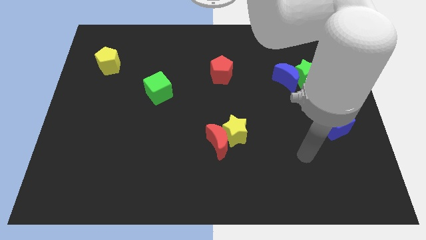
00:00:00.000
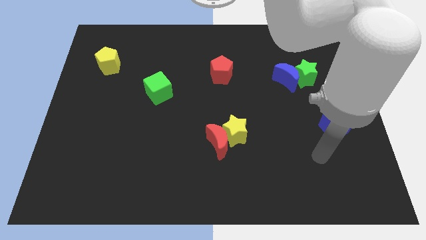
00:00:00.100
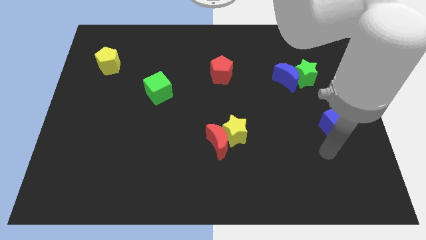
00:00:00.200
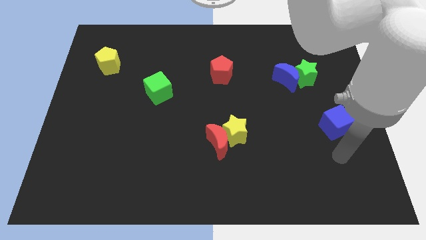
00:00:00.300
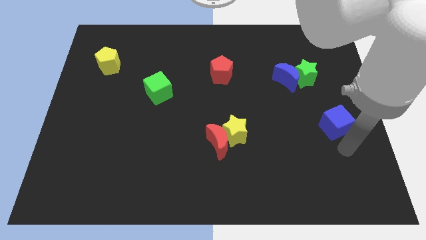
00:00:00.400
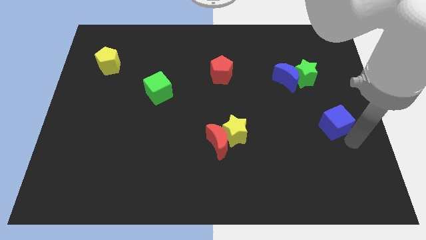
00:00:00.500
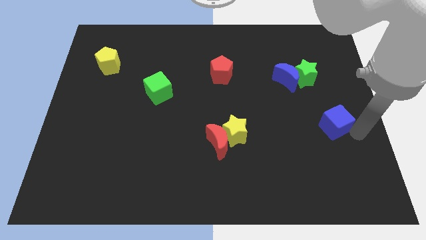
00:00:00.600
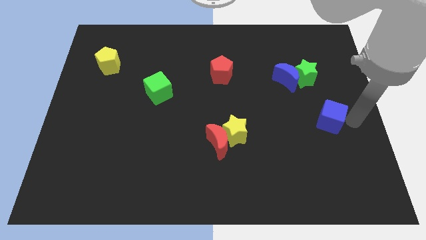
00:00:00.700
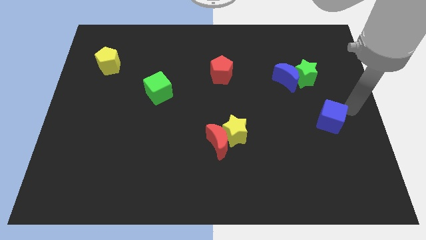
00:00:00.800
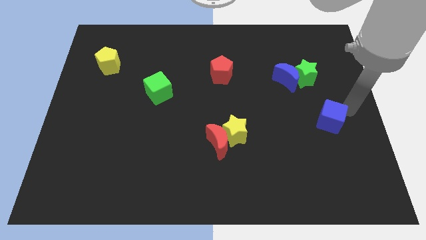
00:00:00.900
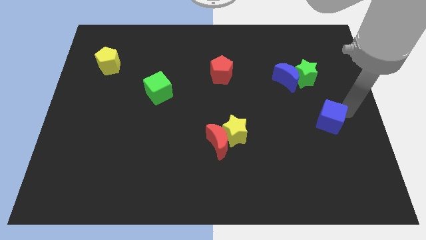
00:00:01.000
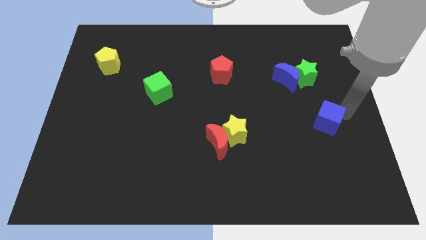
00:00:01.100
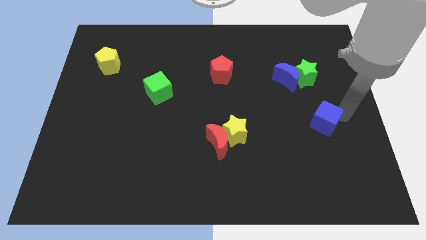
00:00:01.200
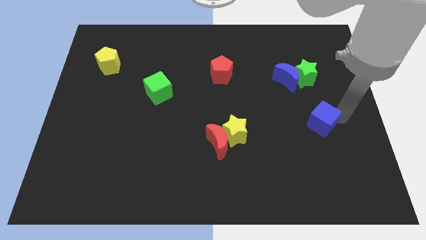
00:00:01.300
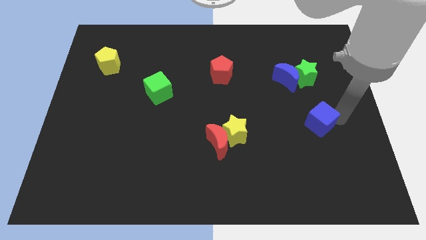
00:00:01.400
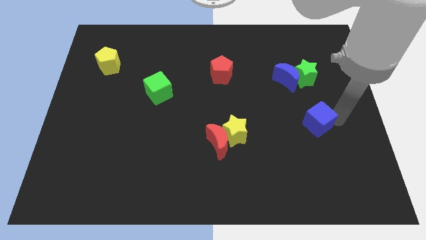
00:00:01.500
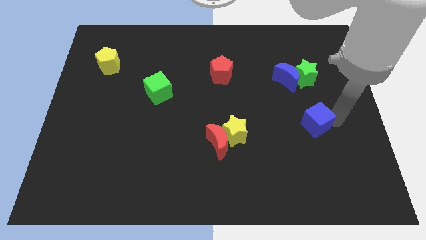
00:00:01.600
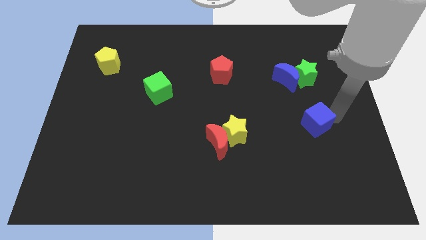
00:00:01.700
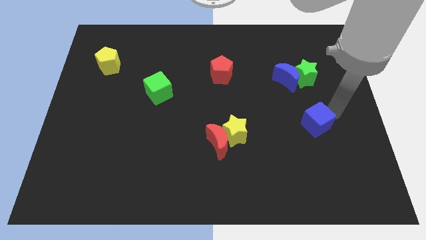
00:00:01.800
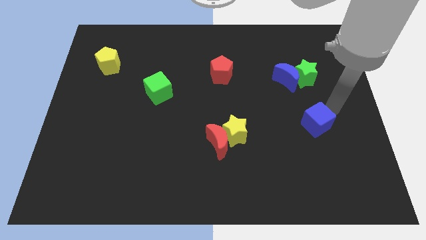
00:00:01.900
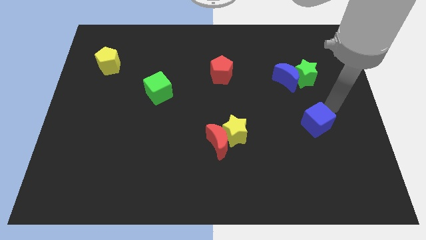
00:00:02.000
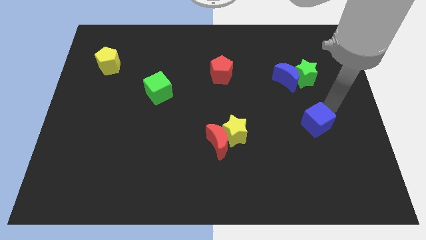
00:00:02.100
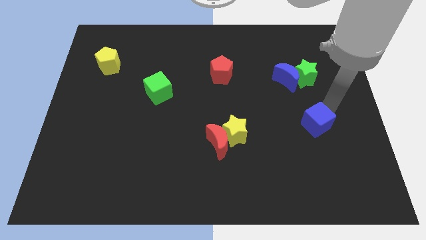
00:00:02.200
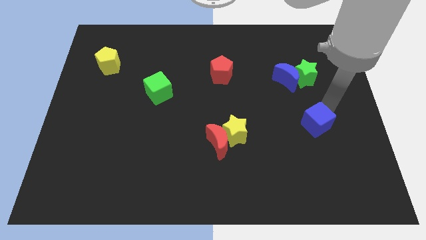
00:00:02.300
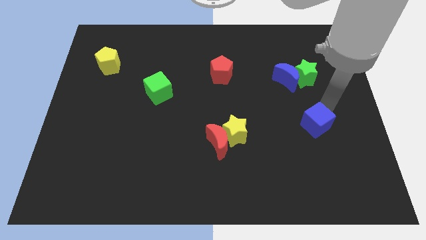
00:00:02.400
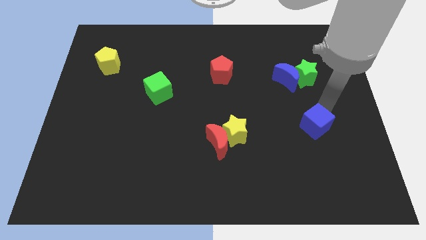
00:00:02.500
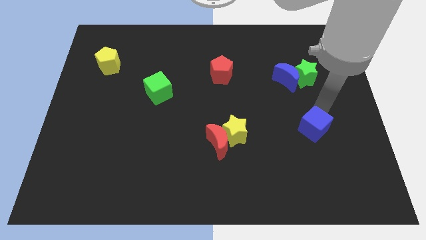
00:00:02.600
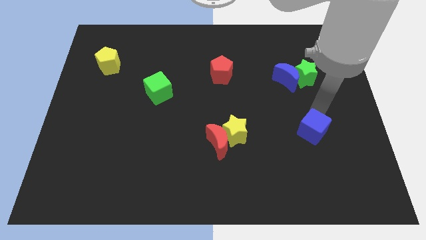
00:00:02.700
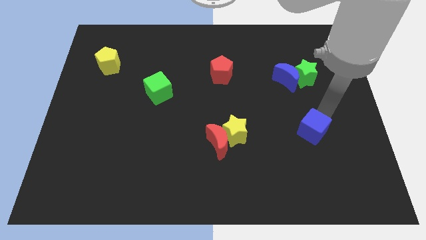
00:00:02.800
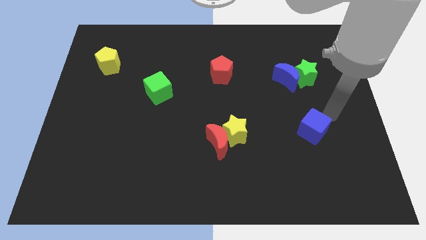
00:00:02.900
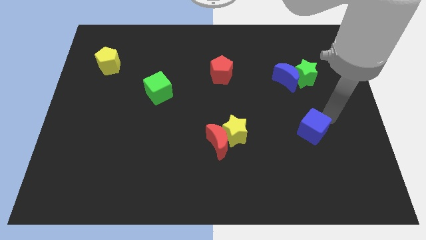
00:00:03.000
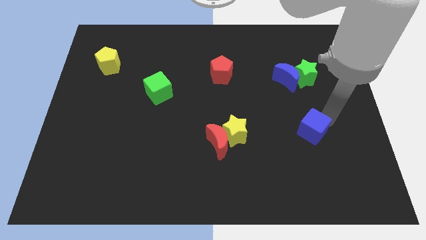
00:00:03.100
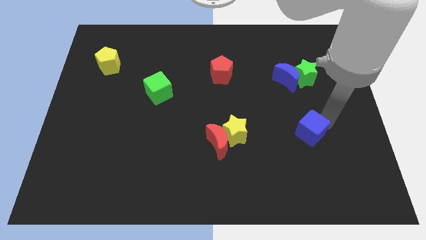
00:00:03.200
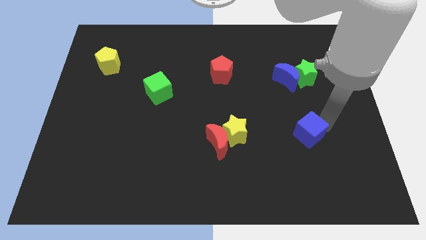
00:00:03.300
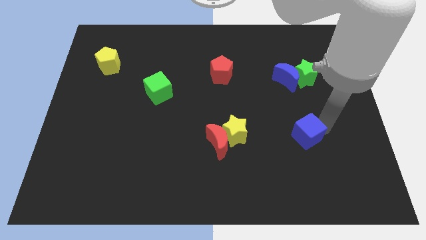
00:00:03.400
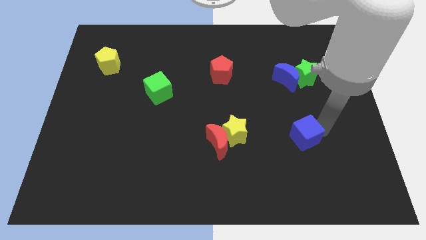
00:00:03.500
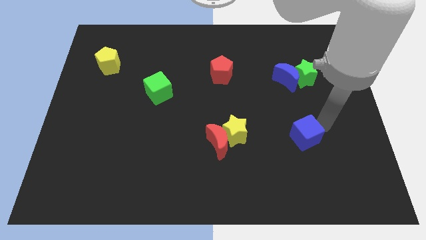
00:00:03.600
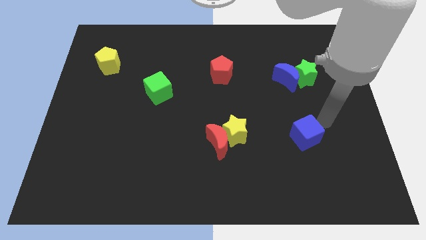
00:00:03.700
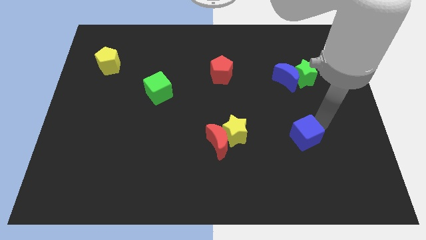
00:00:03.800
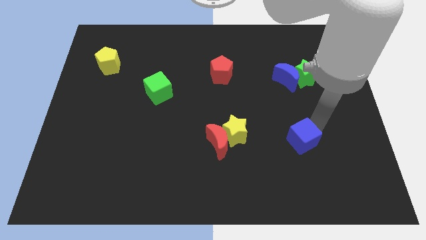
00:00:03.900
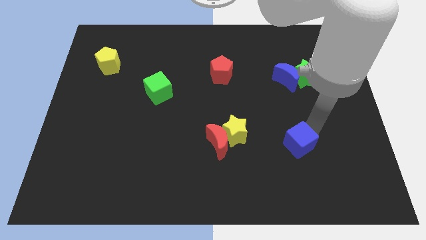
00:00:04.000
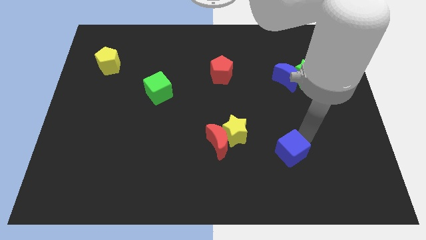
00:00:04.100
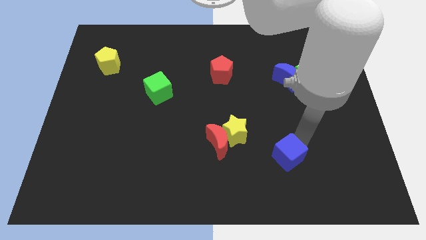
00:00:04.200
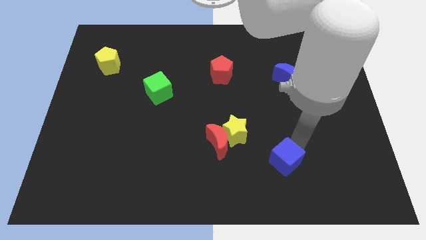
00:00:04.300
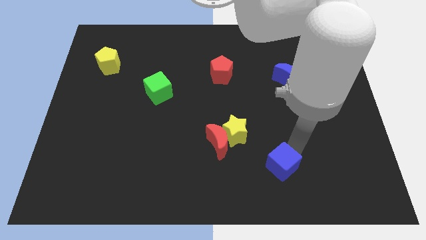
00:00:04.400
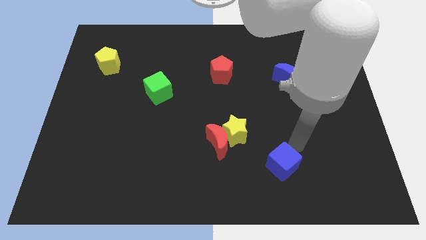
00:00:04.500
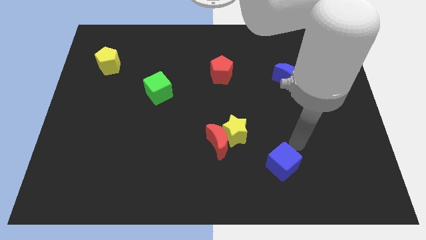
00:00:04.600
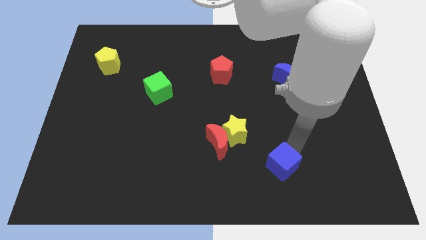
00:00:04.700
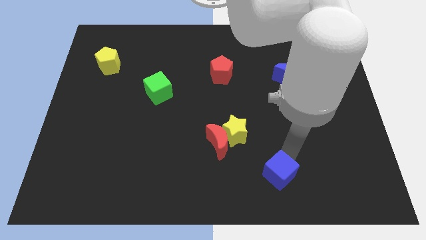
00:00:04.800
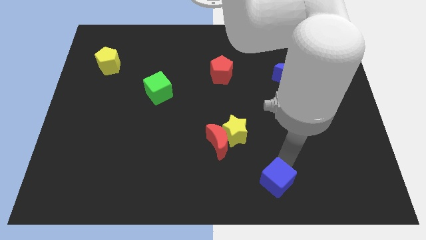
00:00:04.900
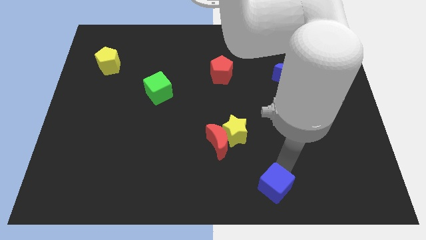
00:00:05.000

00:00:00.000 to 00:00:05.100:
move the blue cube to the bottom

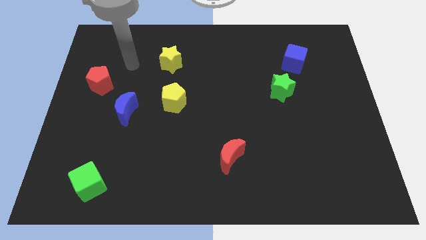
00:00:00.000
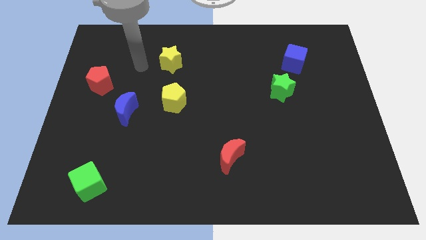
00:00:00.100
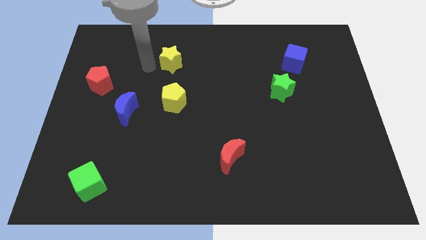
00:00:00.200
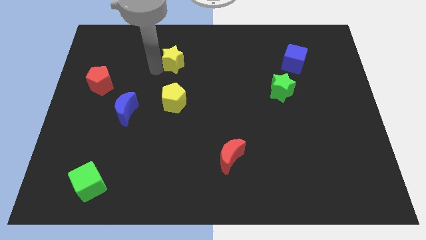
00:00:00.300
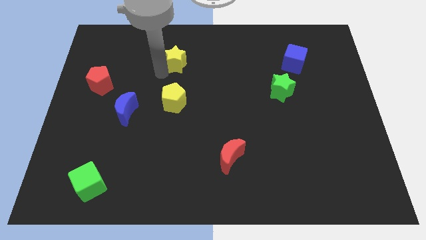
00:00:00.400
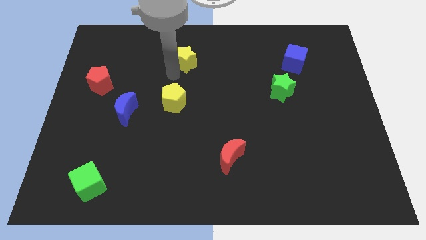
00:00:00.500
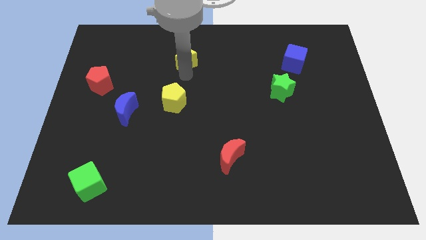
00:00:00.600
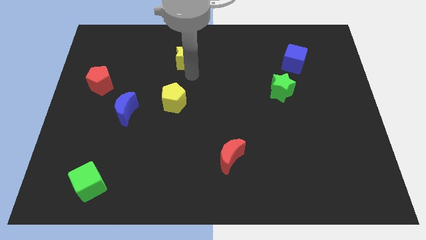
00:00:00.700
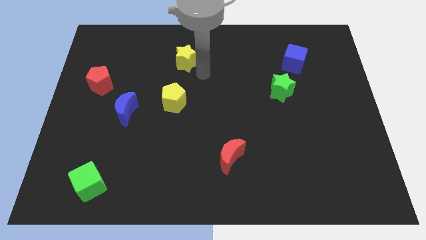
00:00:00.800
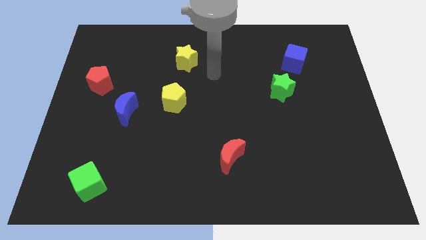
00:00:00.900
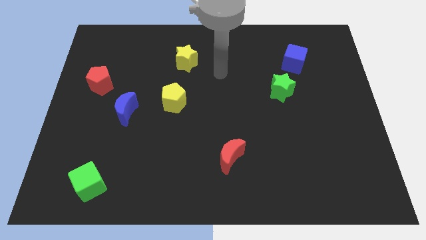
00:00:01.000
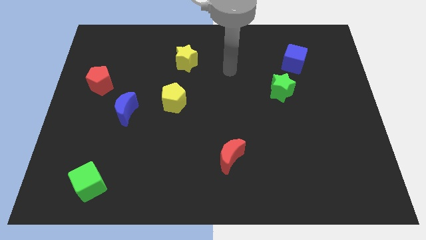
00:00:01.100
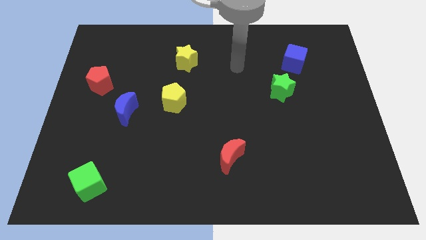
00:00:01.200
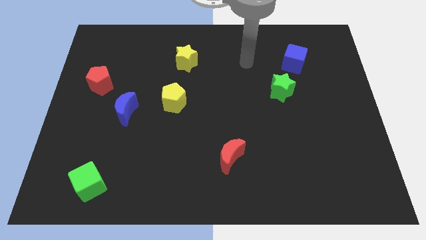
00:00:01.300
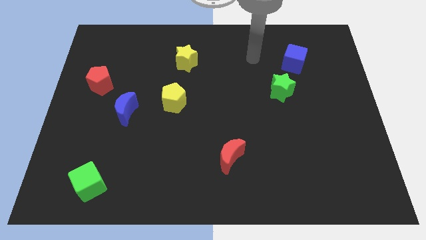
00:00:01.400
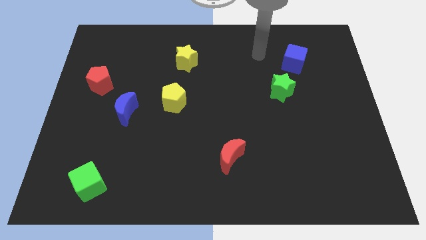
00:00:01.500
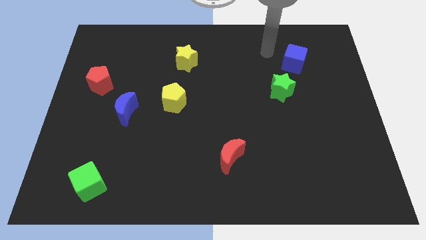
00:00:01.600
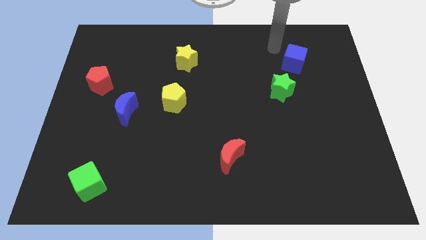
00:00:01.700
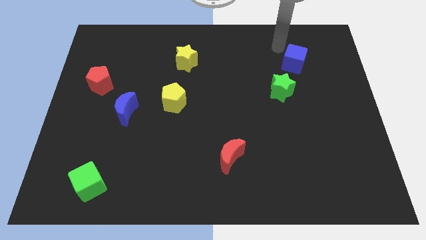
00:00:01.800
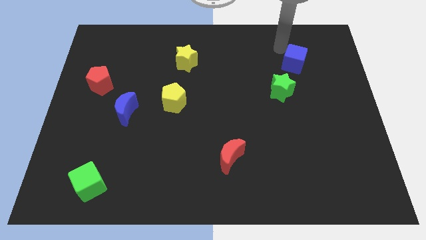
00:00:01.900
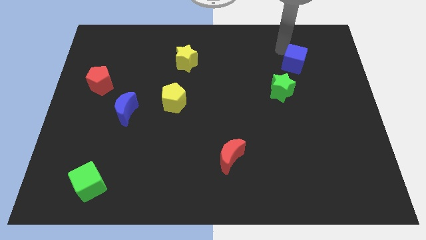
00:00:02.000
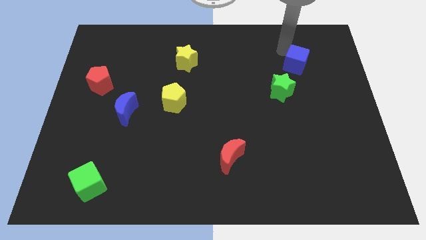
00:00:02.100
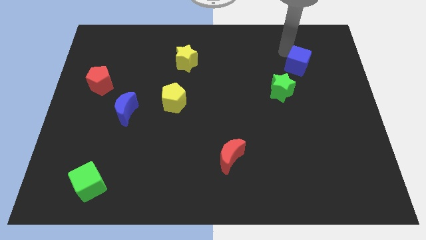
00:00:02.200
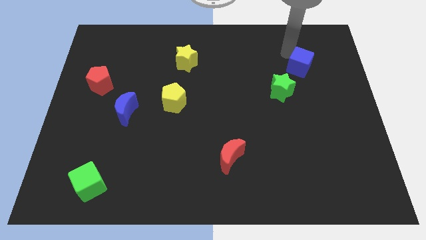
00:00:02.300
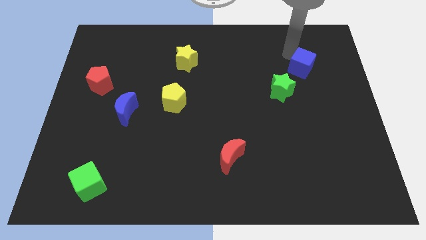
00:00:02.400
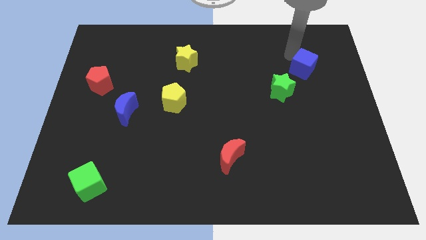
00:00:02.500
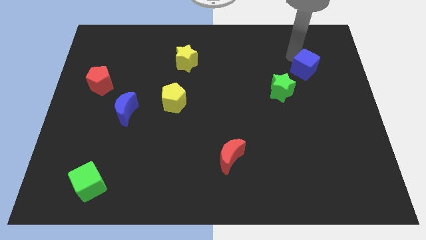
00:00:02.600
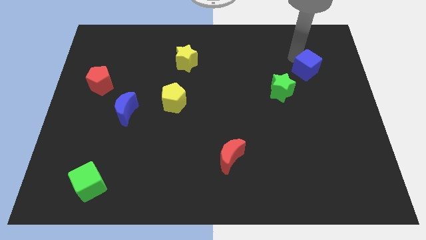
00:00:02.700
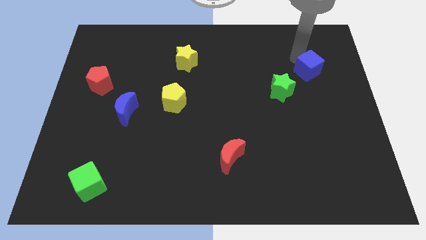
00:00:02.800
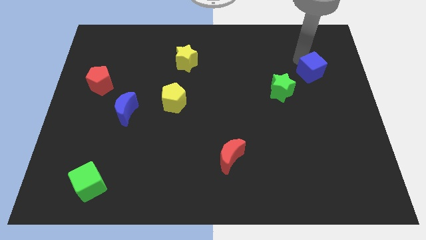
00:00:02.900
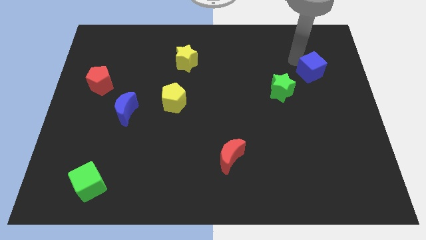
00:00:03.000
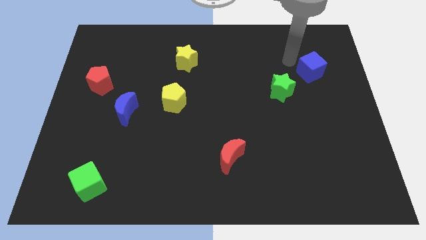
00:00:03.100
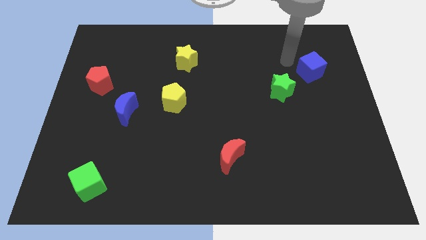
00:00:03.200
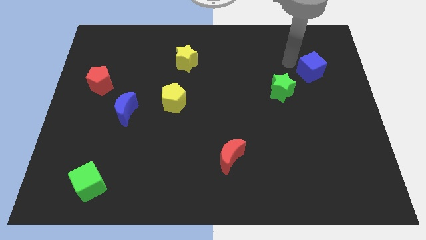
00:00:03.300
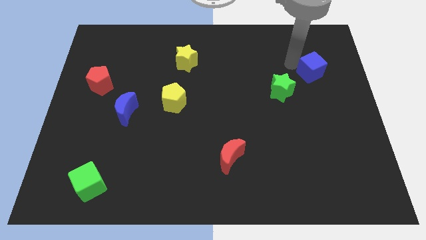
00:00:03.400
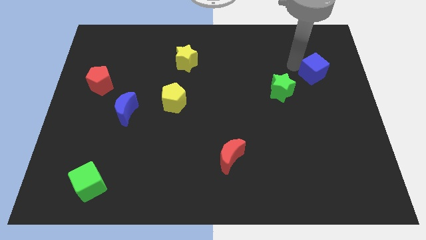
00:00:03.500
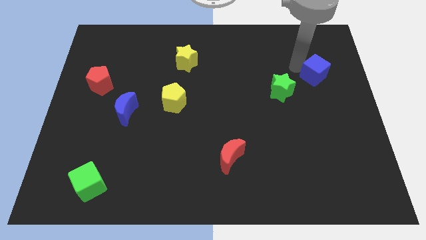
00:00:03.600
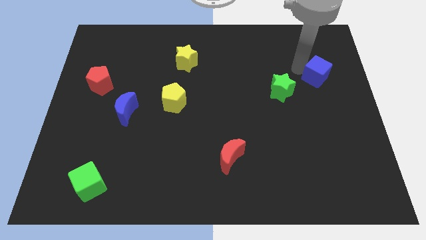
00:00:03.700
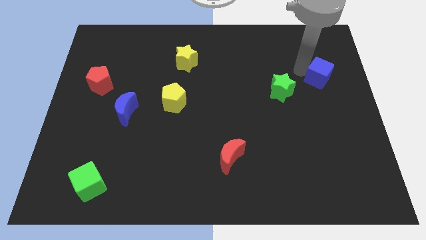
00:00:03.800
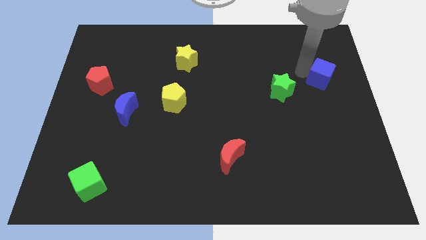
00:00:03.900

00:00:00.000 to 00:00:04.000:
push the blue cube to the right side
